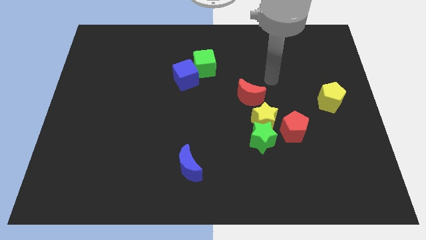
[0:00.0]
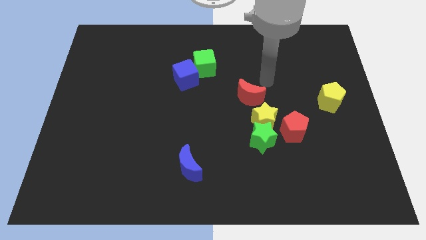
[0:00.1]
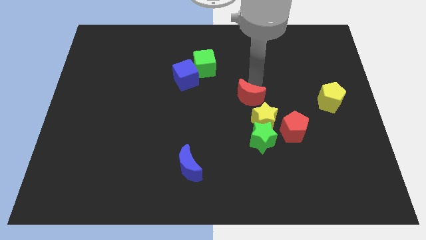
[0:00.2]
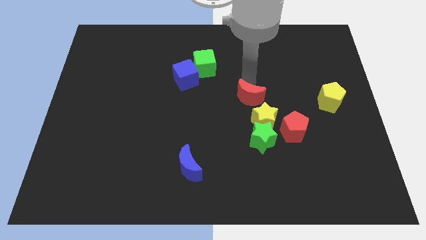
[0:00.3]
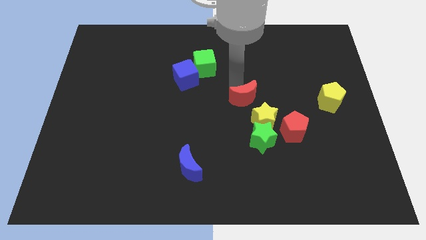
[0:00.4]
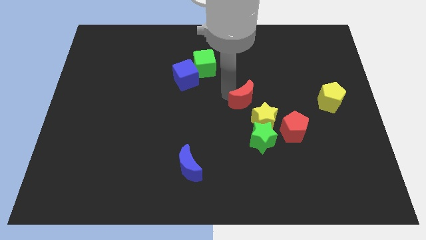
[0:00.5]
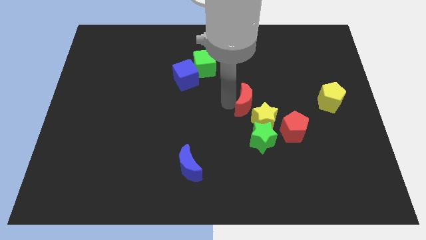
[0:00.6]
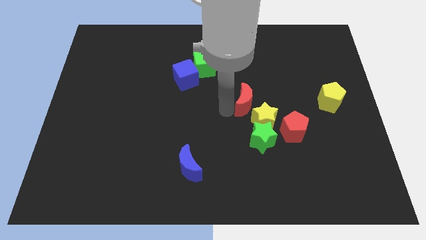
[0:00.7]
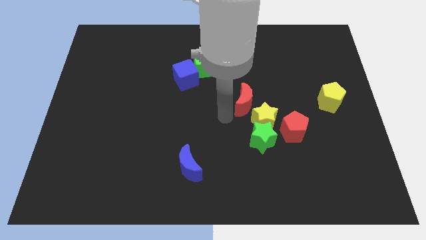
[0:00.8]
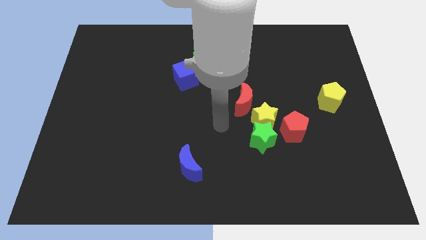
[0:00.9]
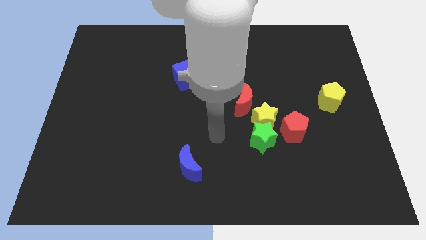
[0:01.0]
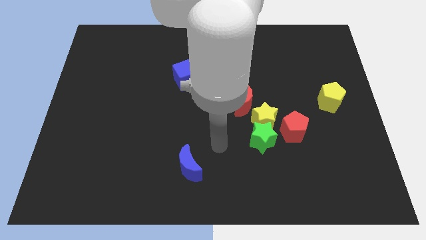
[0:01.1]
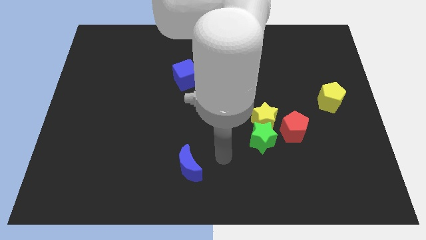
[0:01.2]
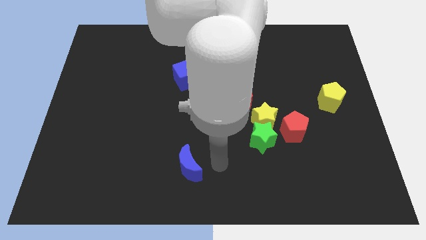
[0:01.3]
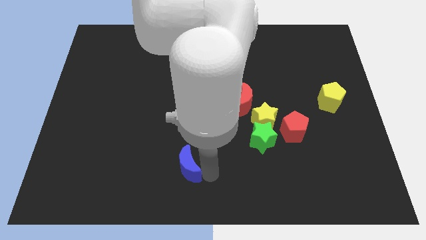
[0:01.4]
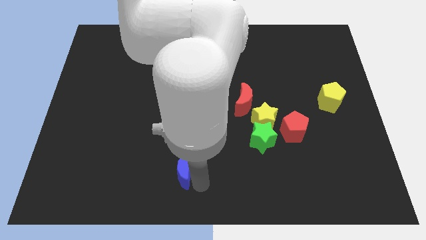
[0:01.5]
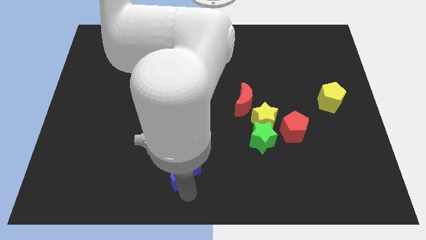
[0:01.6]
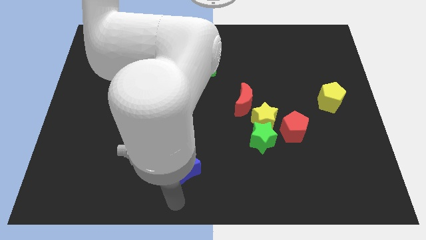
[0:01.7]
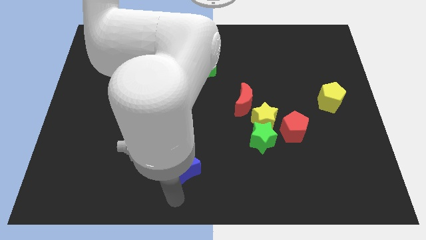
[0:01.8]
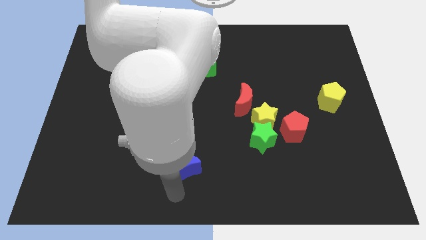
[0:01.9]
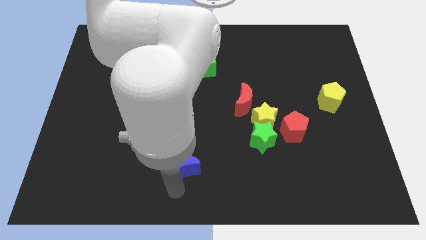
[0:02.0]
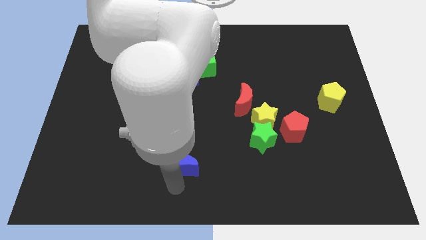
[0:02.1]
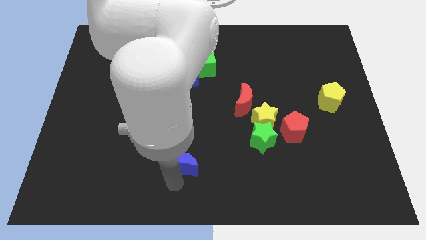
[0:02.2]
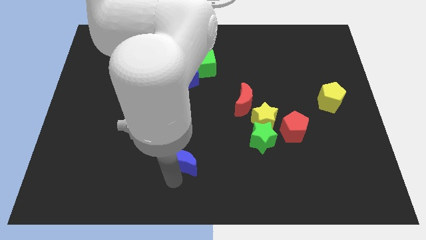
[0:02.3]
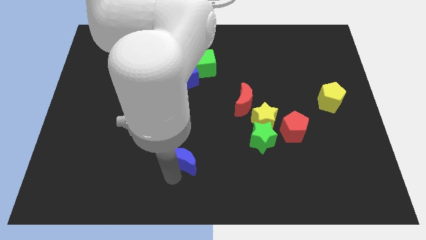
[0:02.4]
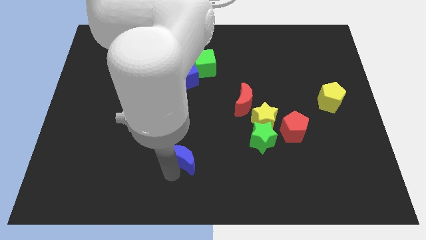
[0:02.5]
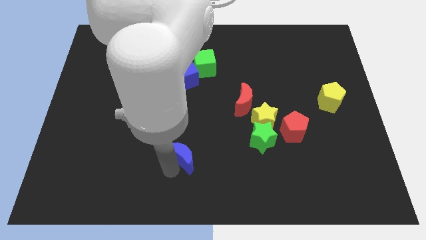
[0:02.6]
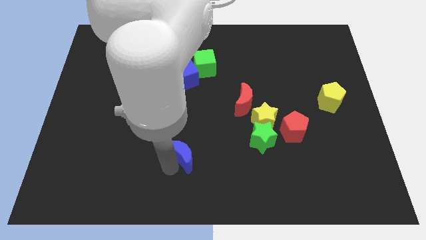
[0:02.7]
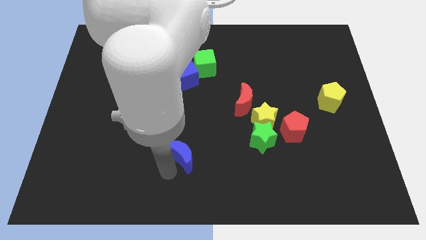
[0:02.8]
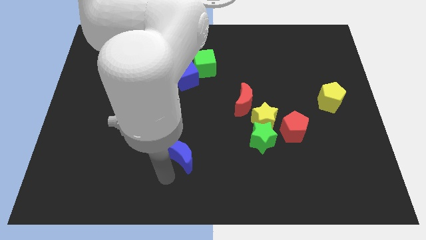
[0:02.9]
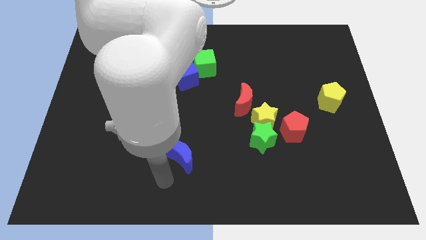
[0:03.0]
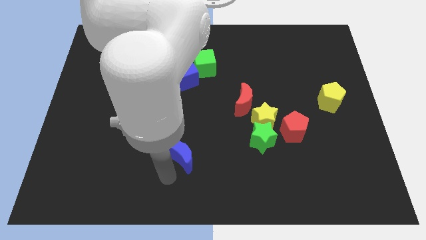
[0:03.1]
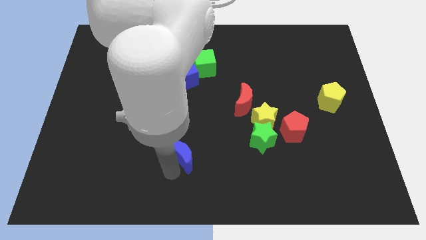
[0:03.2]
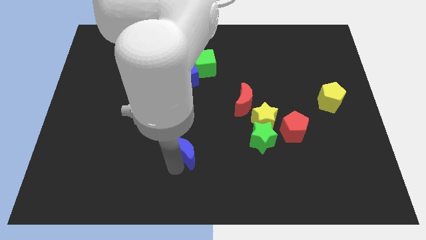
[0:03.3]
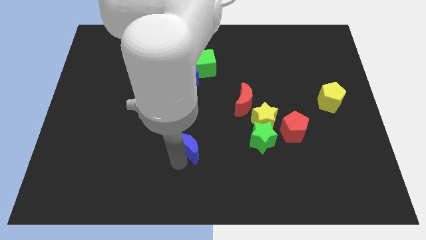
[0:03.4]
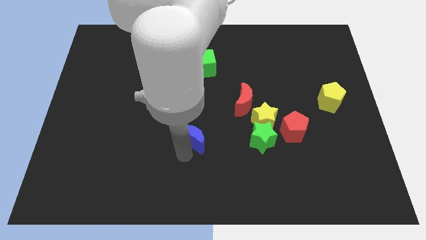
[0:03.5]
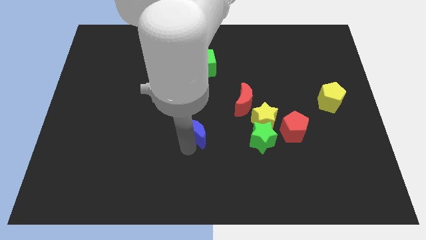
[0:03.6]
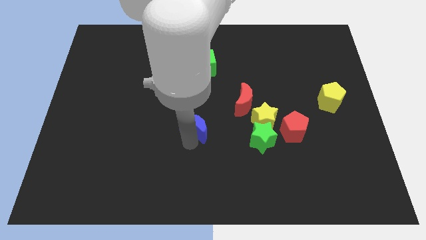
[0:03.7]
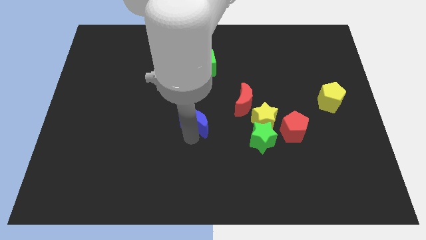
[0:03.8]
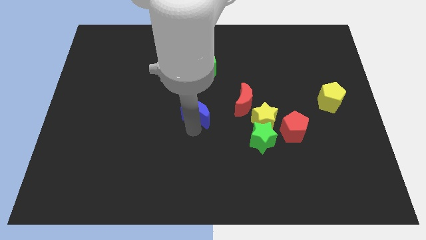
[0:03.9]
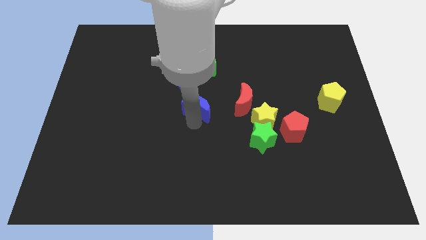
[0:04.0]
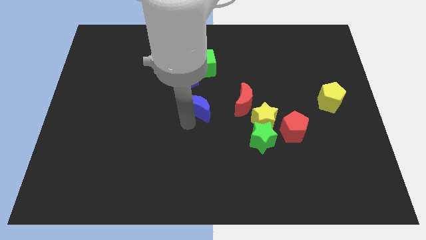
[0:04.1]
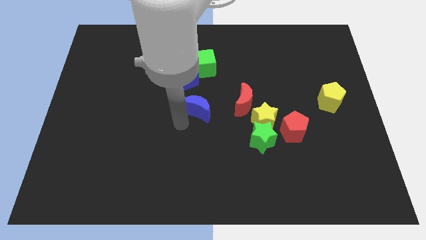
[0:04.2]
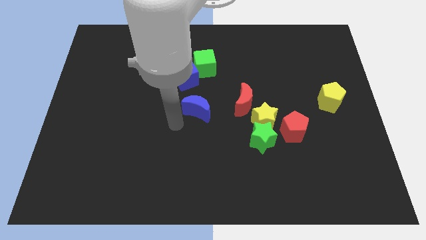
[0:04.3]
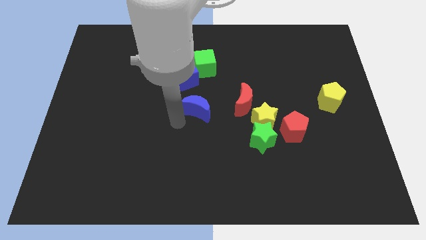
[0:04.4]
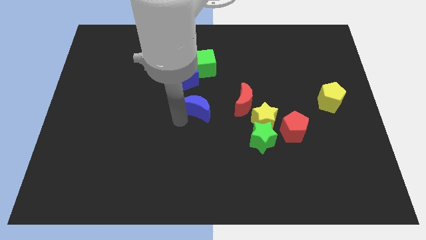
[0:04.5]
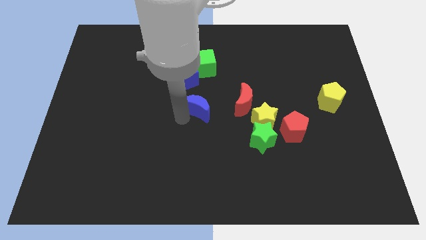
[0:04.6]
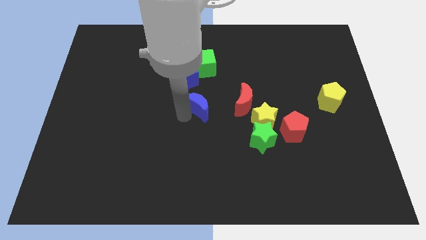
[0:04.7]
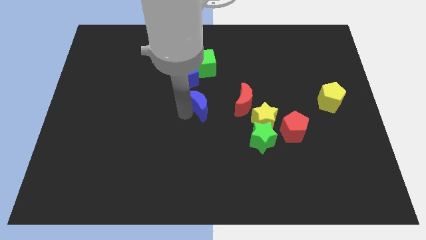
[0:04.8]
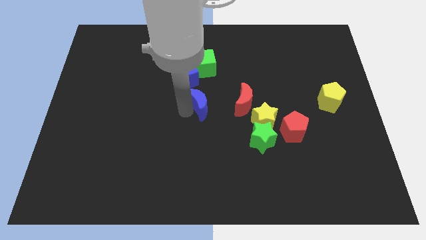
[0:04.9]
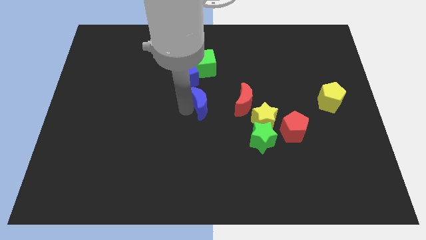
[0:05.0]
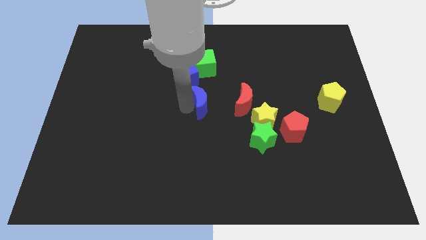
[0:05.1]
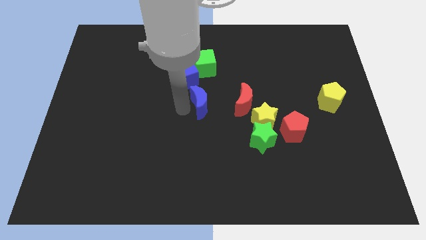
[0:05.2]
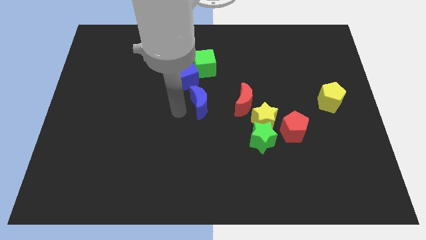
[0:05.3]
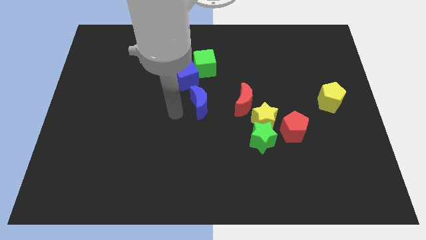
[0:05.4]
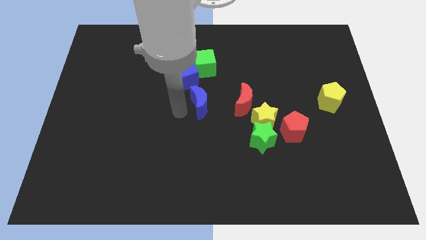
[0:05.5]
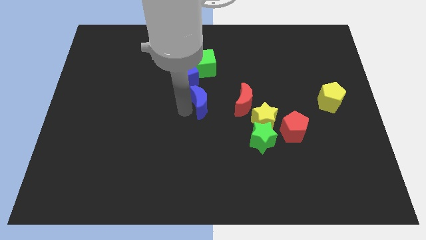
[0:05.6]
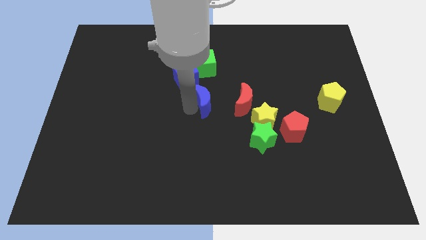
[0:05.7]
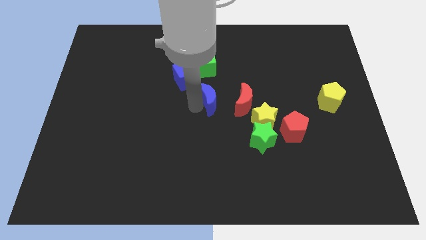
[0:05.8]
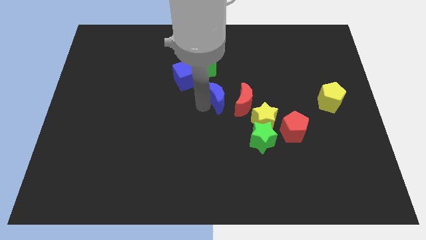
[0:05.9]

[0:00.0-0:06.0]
slide the blue moon to the top left of the red moon

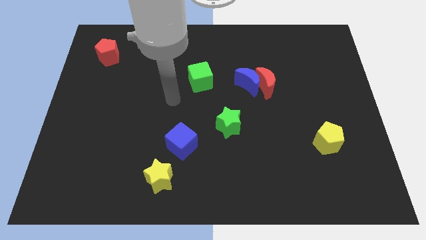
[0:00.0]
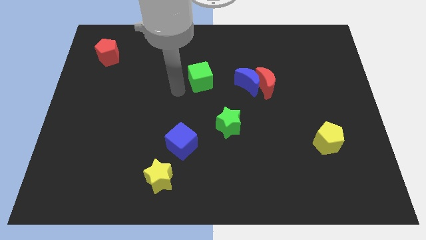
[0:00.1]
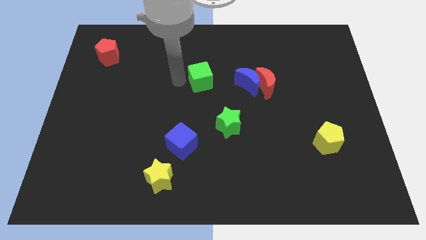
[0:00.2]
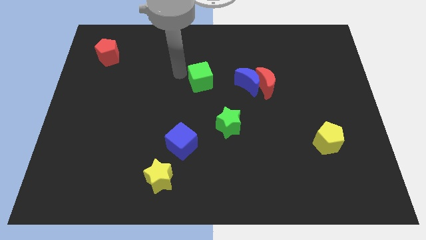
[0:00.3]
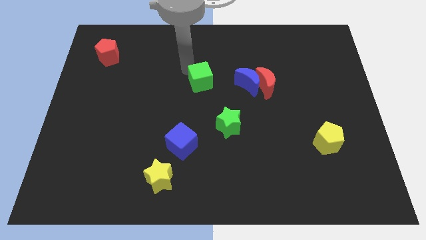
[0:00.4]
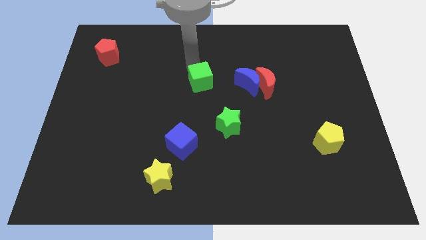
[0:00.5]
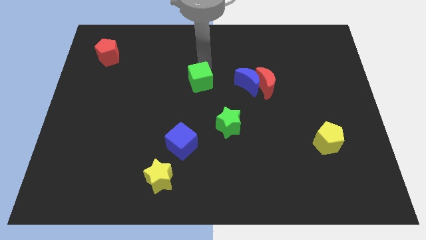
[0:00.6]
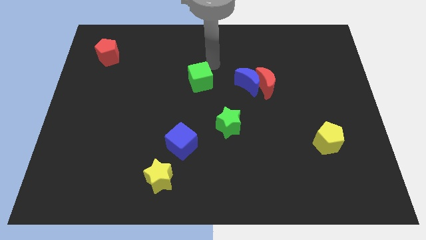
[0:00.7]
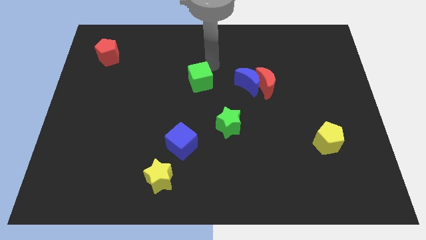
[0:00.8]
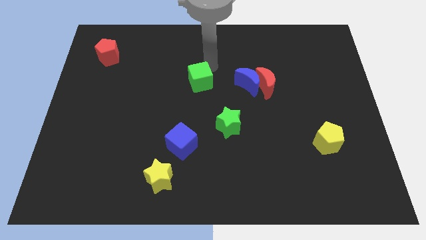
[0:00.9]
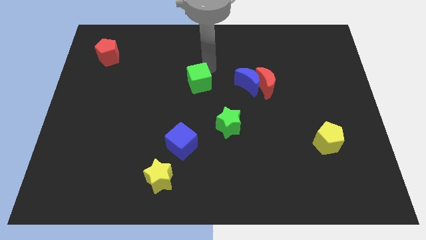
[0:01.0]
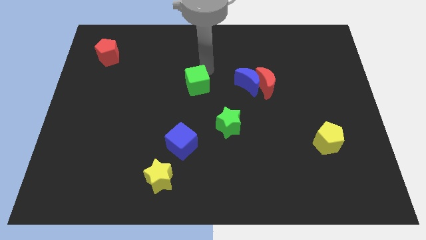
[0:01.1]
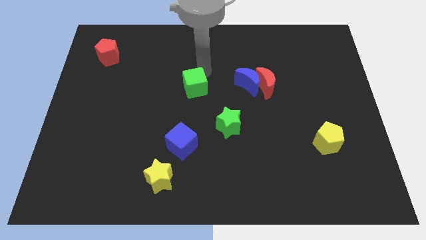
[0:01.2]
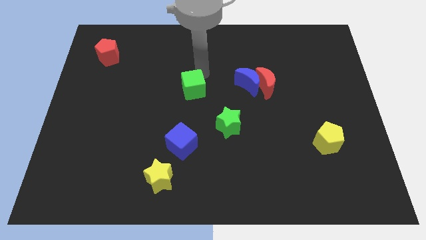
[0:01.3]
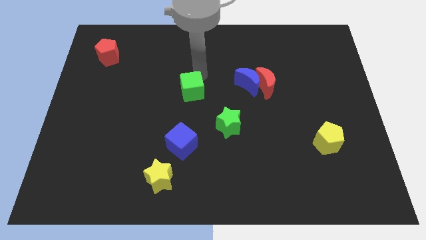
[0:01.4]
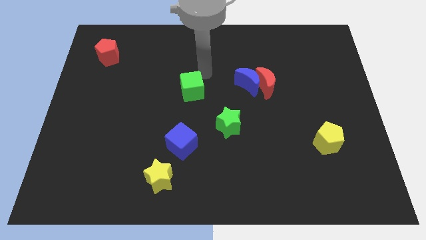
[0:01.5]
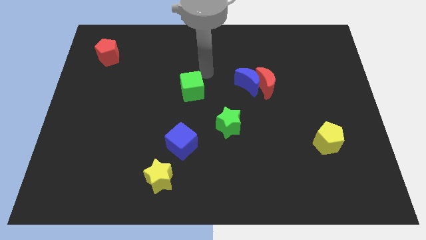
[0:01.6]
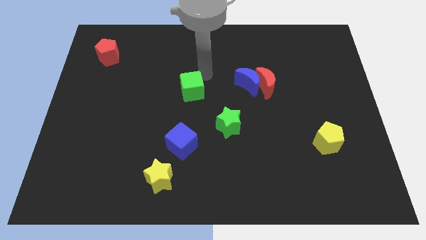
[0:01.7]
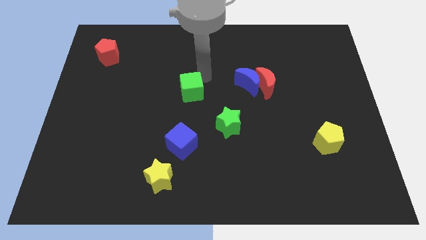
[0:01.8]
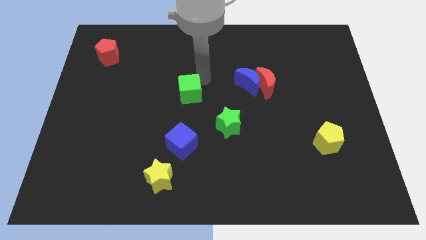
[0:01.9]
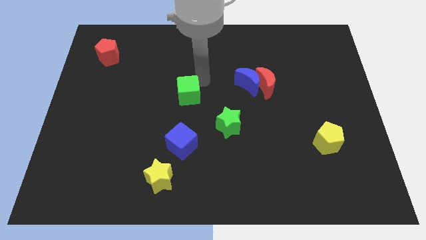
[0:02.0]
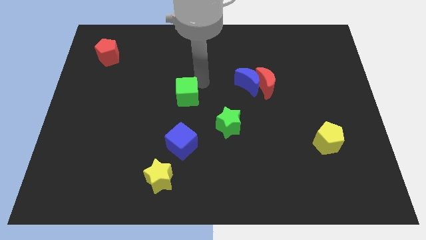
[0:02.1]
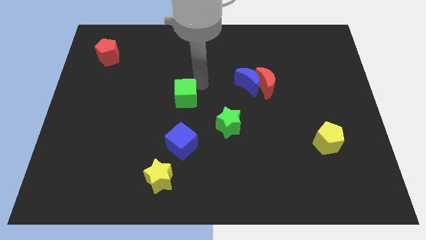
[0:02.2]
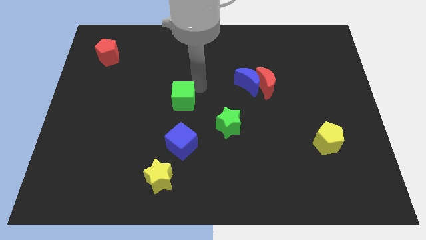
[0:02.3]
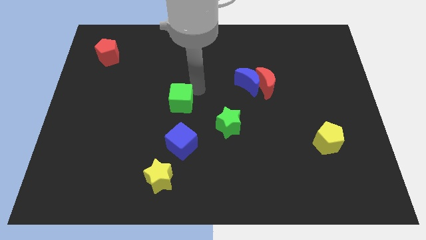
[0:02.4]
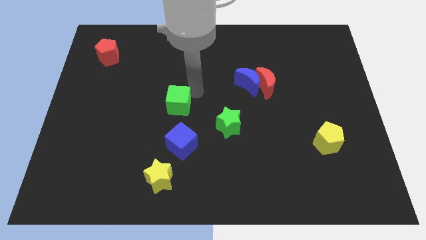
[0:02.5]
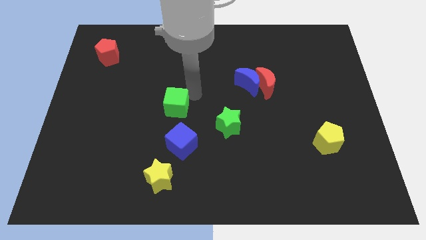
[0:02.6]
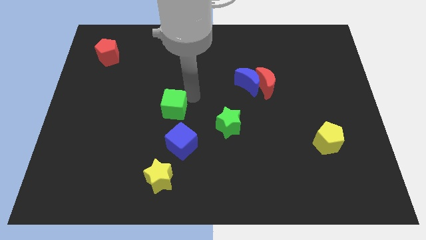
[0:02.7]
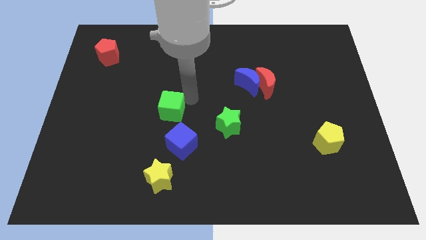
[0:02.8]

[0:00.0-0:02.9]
put the green cube diagonally up and to the left of the blue cube
